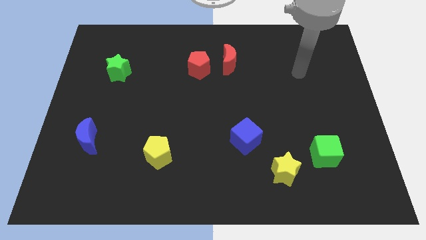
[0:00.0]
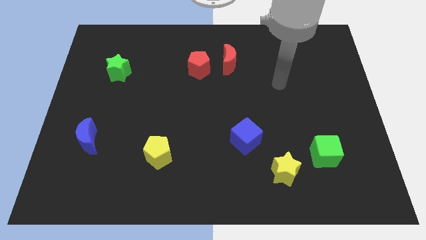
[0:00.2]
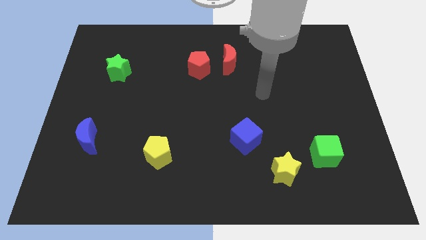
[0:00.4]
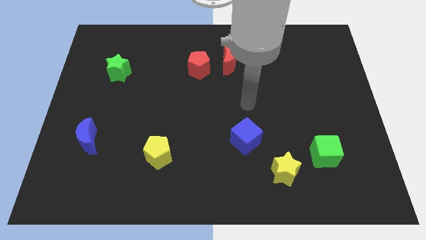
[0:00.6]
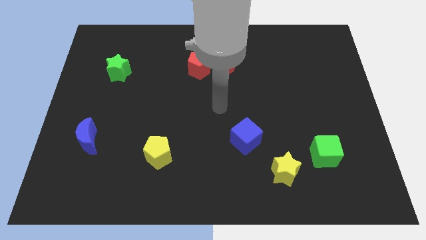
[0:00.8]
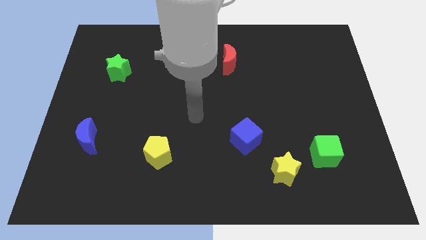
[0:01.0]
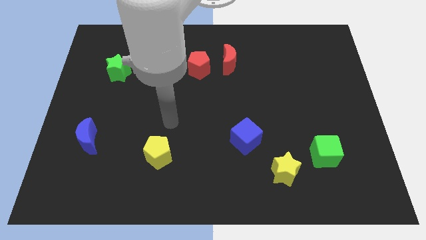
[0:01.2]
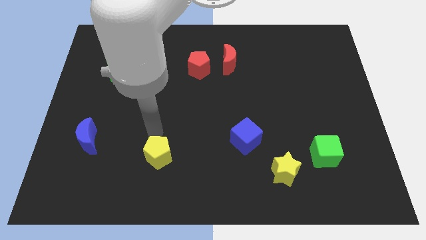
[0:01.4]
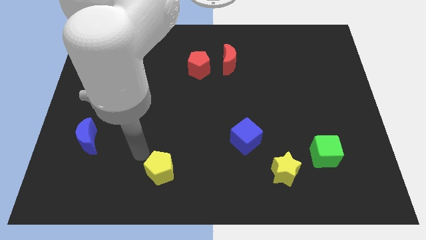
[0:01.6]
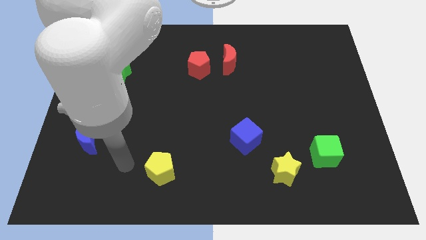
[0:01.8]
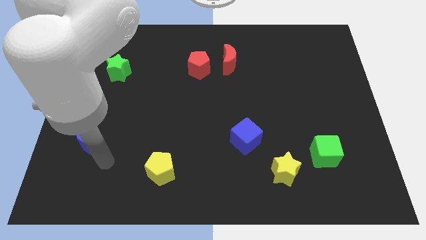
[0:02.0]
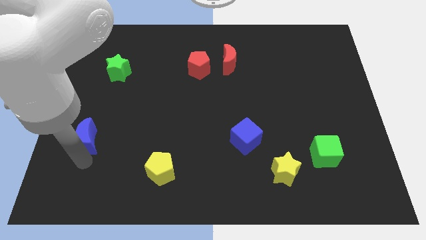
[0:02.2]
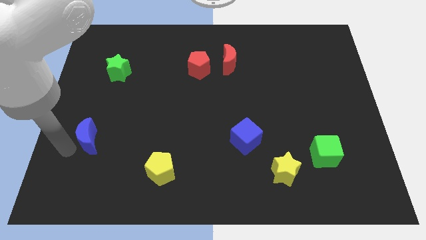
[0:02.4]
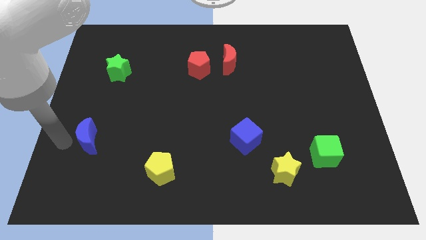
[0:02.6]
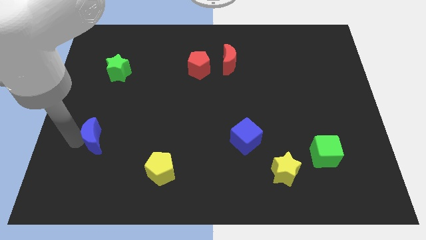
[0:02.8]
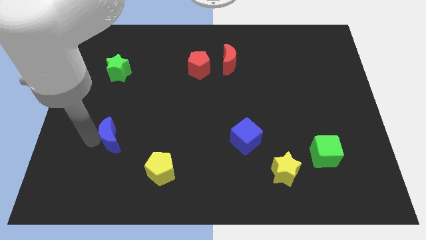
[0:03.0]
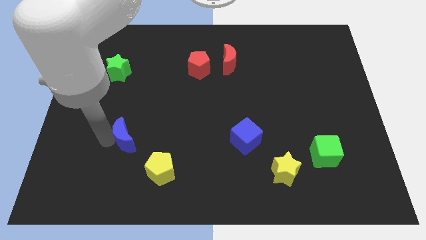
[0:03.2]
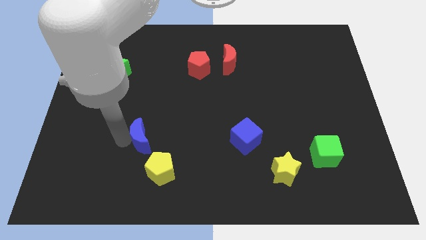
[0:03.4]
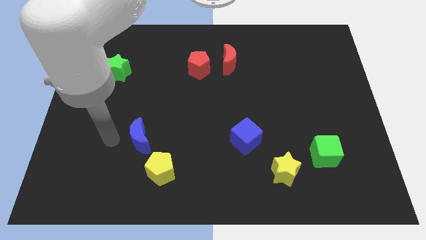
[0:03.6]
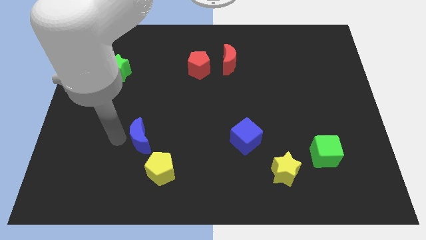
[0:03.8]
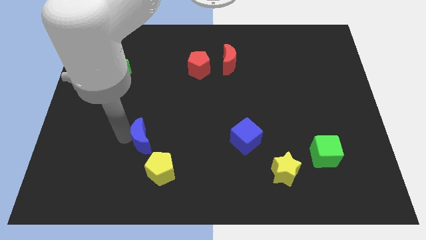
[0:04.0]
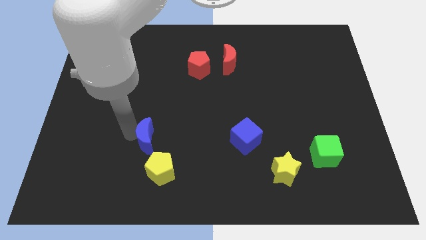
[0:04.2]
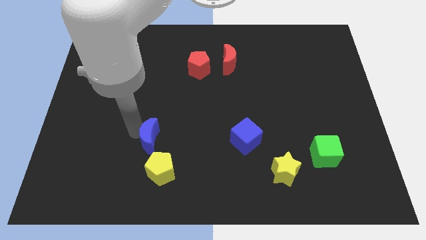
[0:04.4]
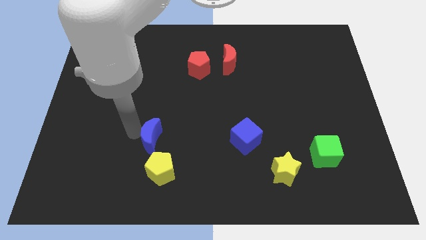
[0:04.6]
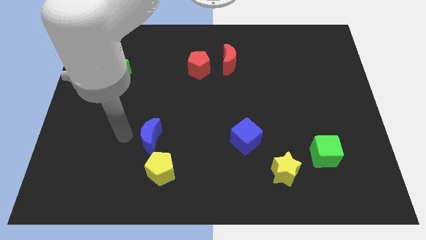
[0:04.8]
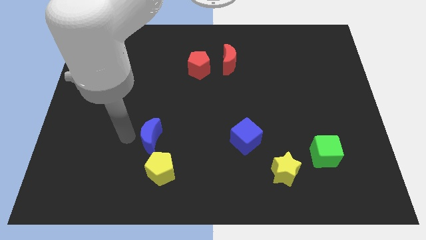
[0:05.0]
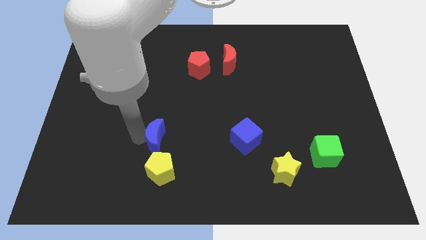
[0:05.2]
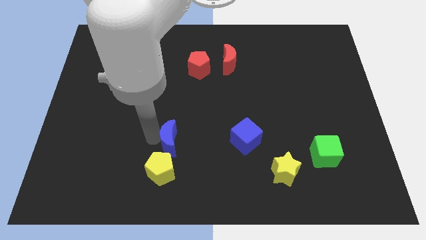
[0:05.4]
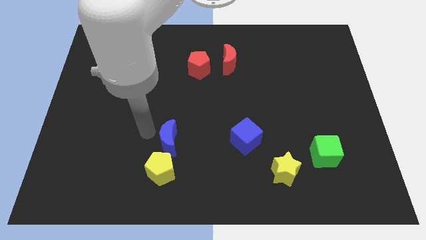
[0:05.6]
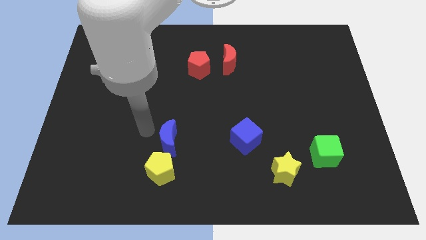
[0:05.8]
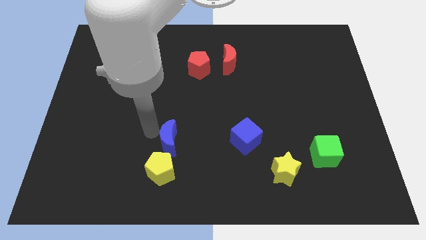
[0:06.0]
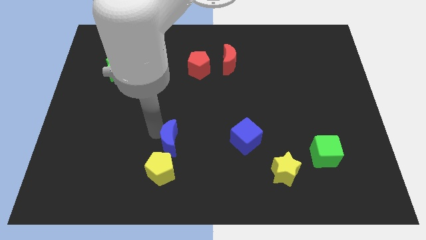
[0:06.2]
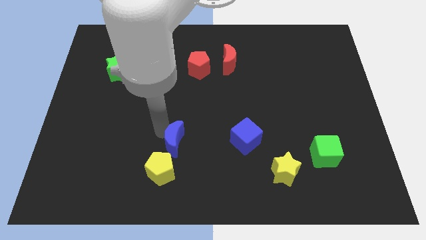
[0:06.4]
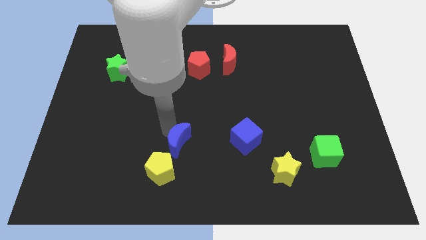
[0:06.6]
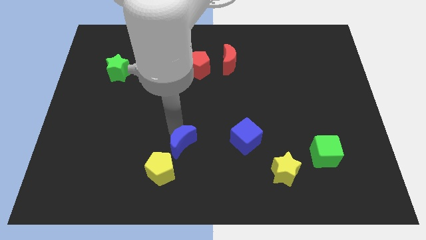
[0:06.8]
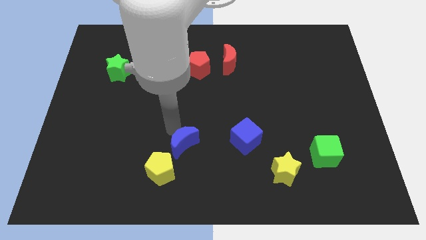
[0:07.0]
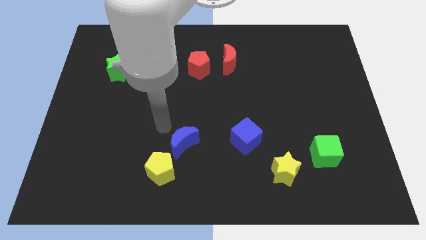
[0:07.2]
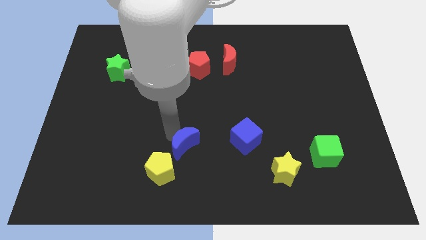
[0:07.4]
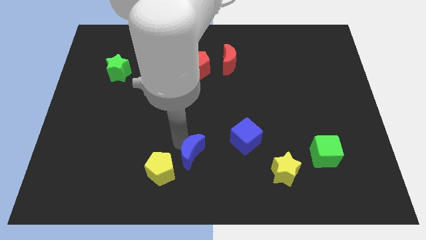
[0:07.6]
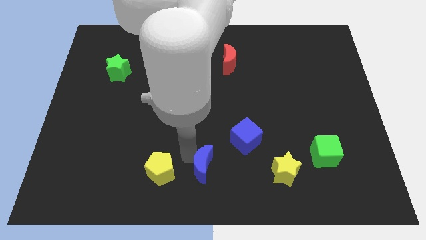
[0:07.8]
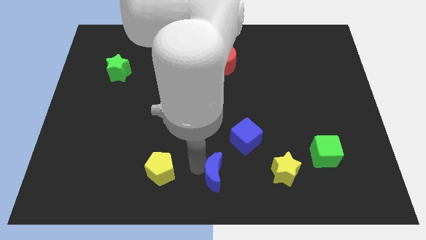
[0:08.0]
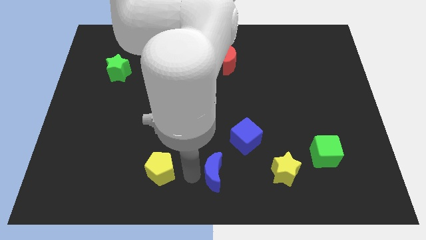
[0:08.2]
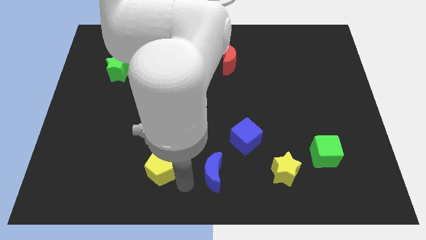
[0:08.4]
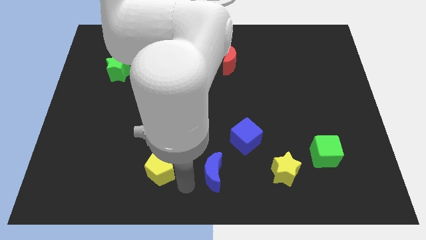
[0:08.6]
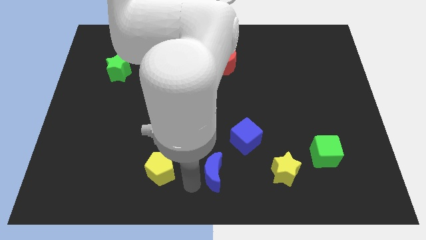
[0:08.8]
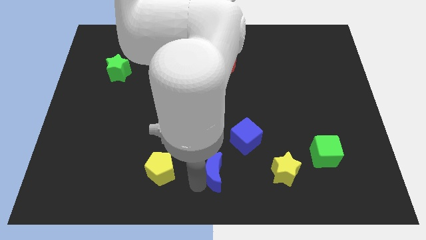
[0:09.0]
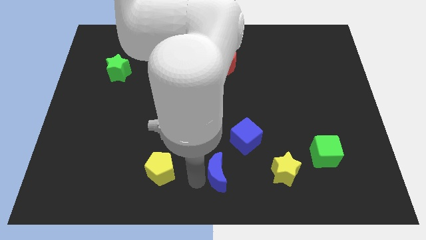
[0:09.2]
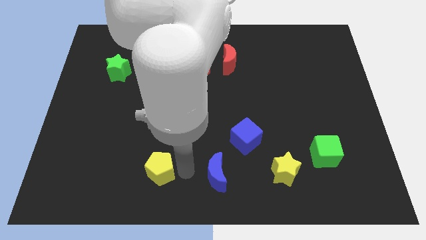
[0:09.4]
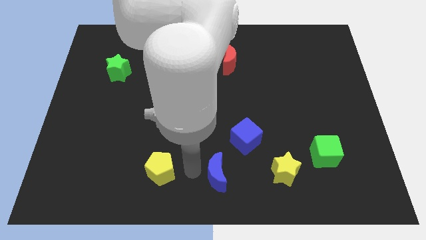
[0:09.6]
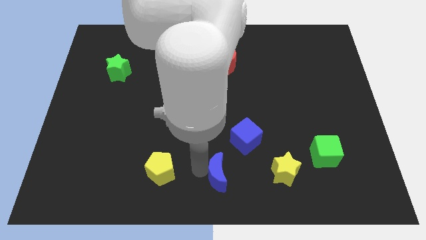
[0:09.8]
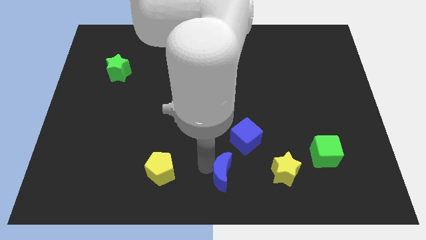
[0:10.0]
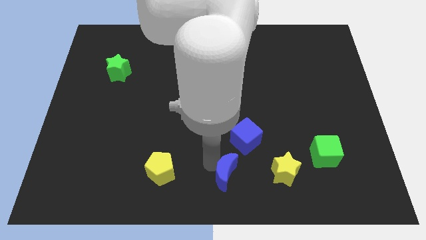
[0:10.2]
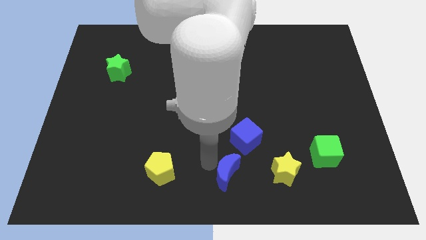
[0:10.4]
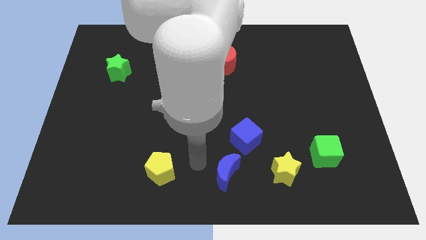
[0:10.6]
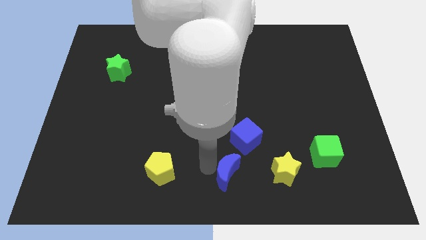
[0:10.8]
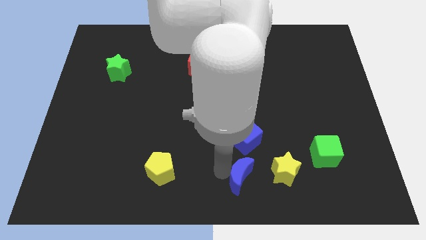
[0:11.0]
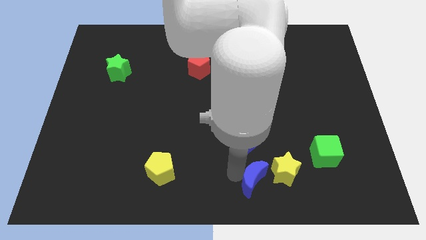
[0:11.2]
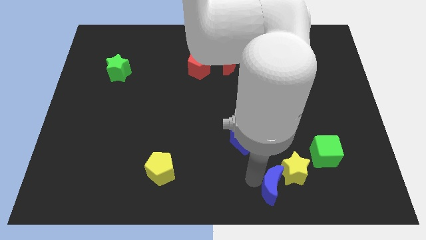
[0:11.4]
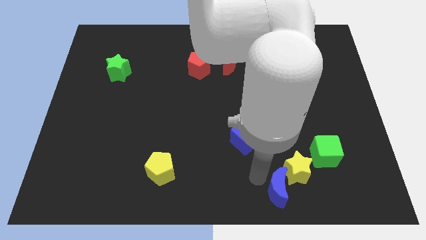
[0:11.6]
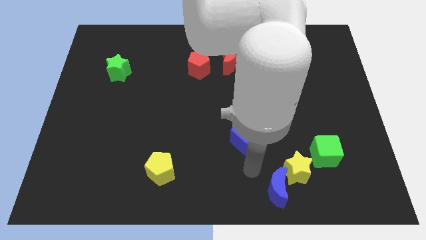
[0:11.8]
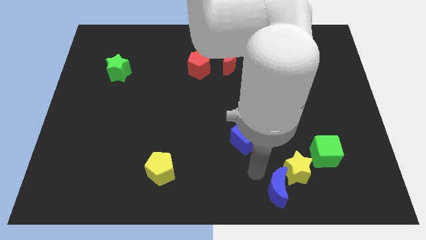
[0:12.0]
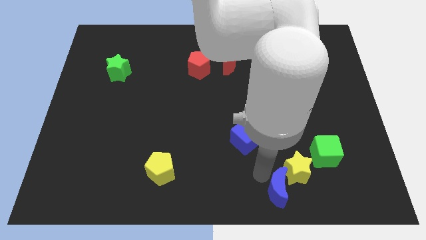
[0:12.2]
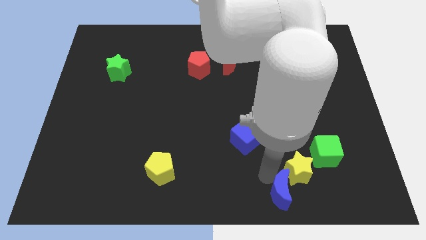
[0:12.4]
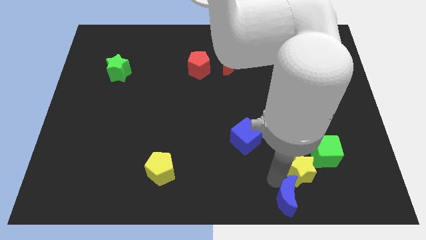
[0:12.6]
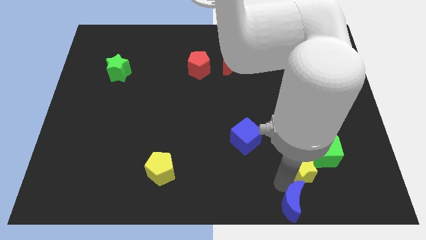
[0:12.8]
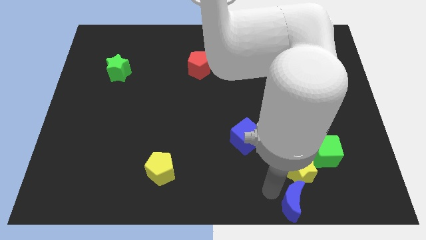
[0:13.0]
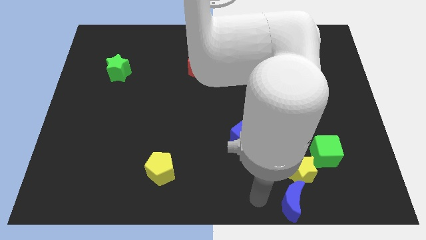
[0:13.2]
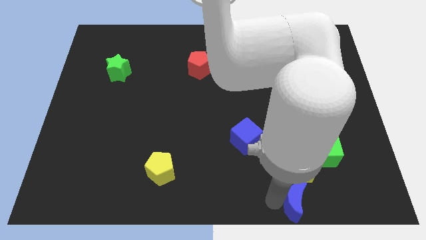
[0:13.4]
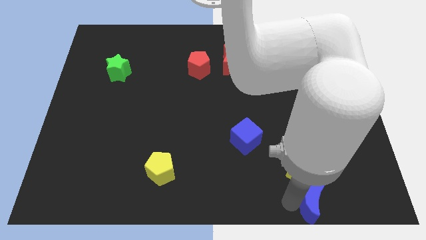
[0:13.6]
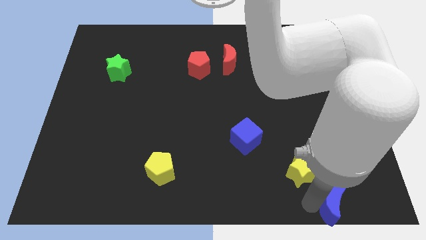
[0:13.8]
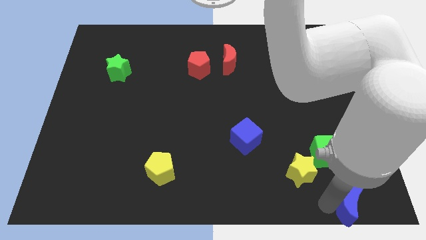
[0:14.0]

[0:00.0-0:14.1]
slide the blue moon to the bottom right of the board
